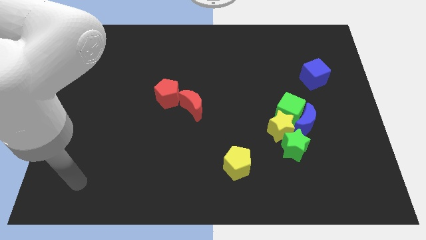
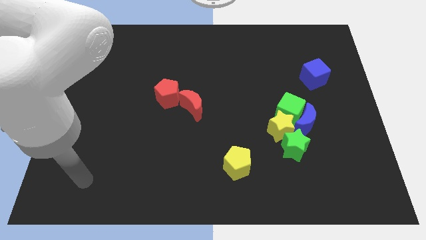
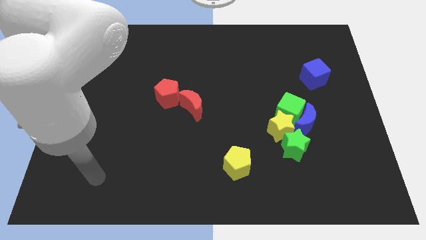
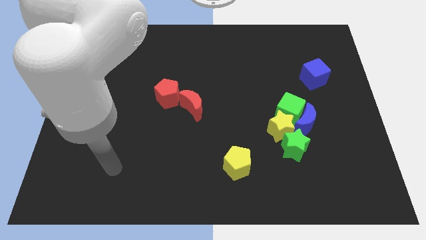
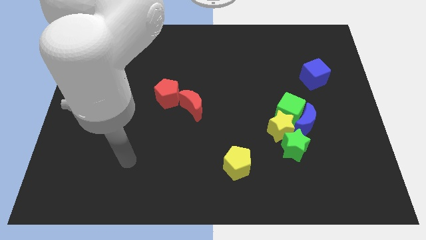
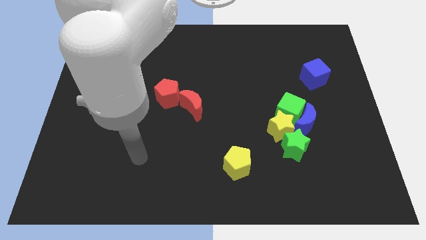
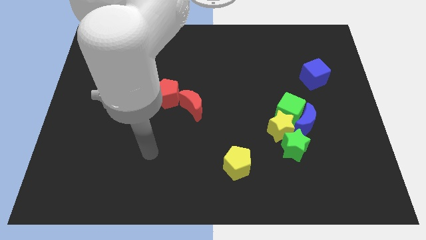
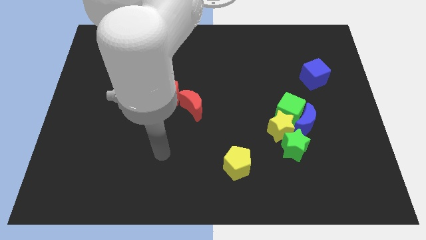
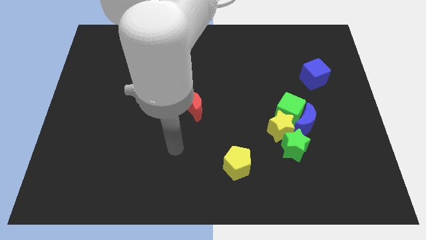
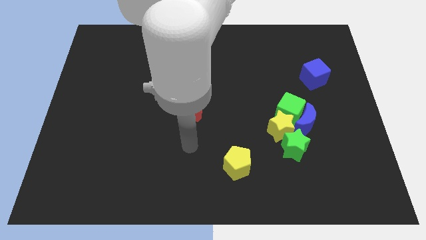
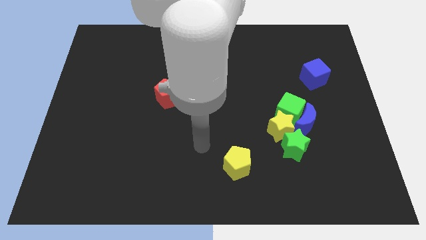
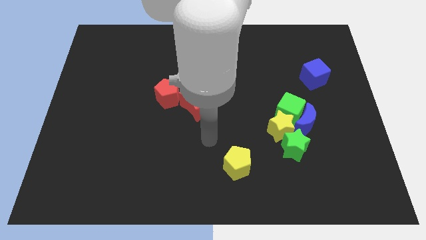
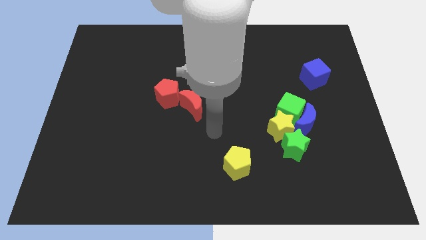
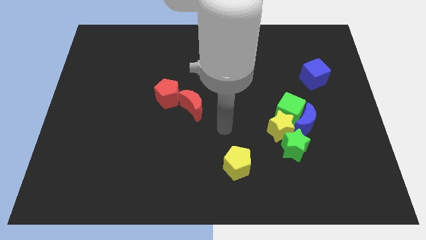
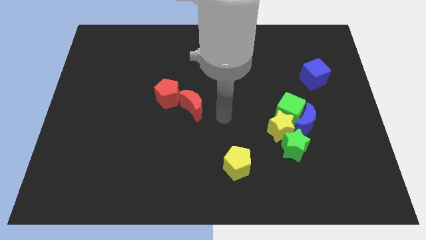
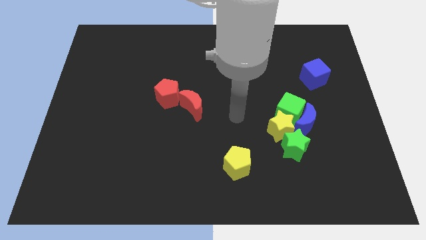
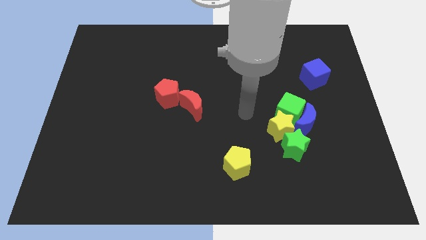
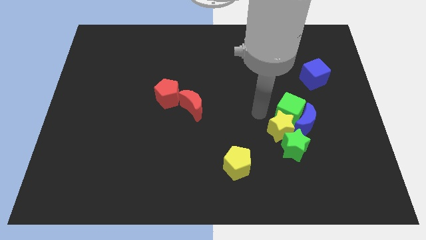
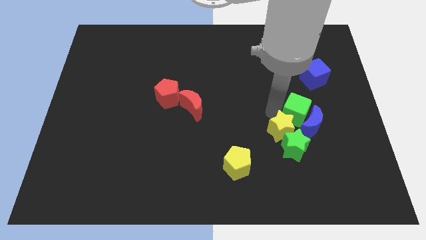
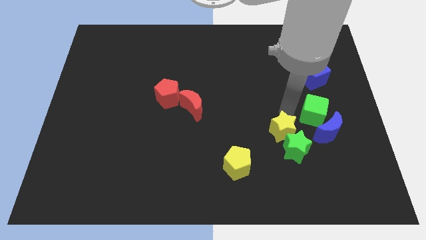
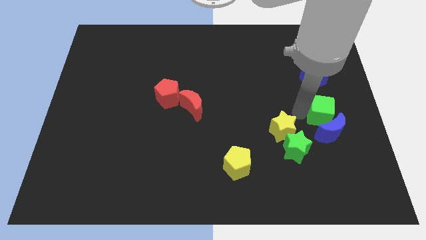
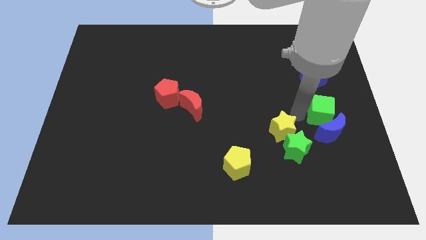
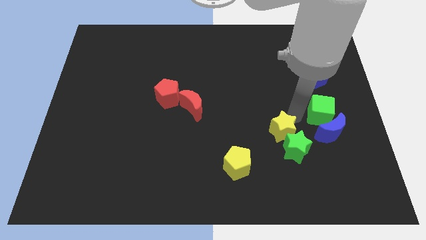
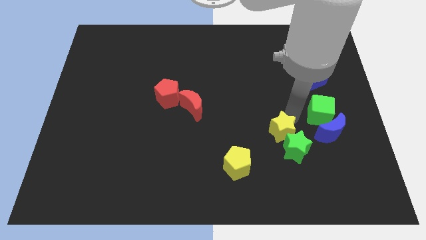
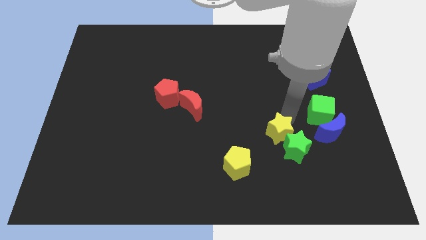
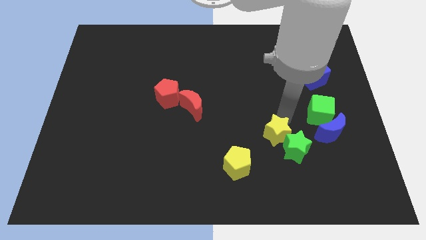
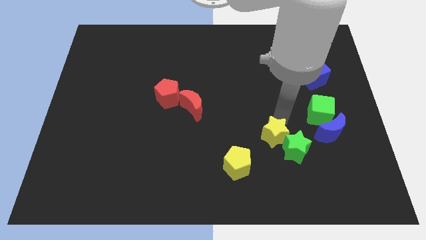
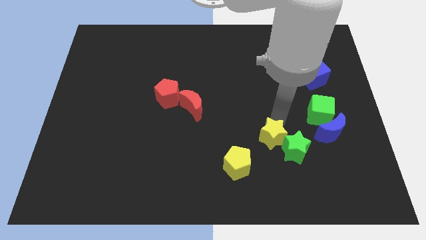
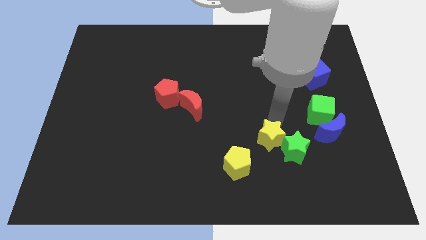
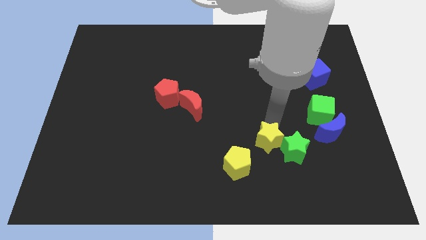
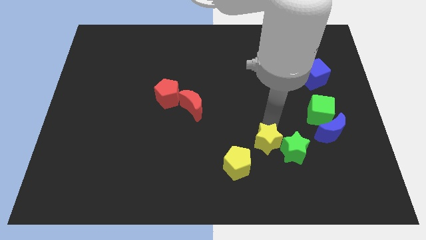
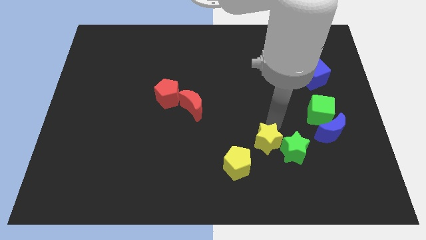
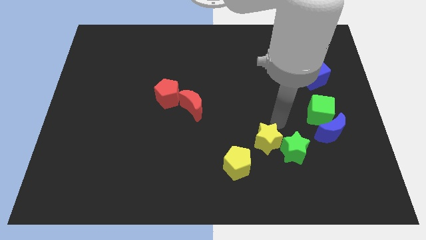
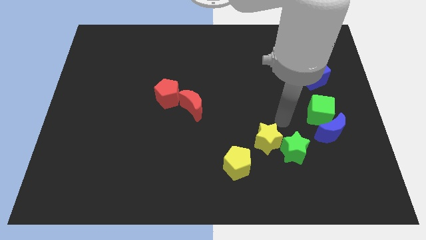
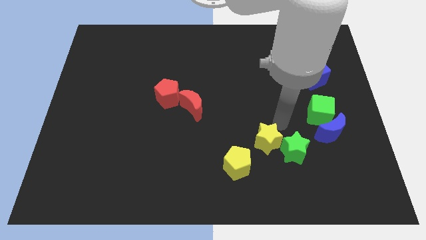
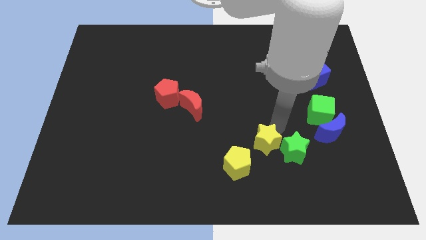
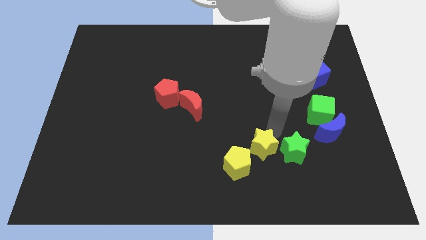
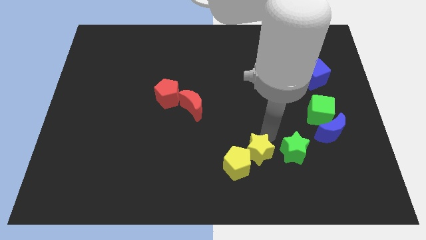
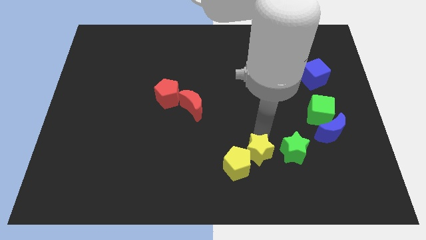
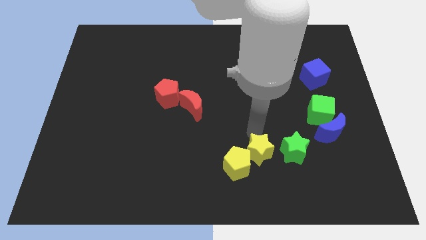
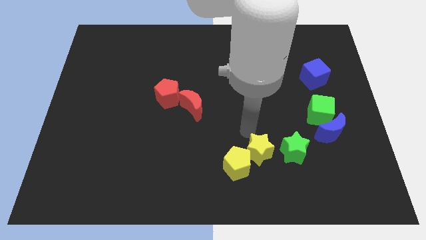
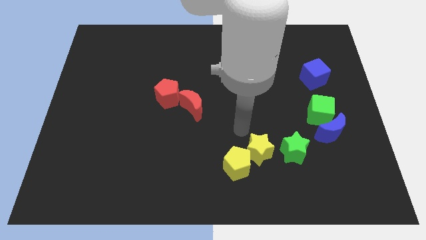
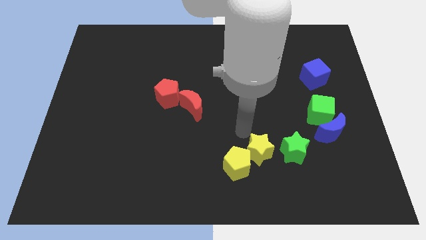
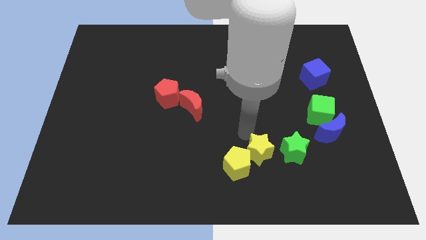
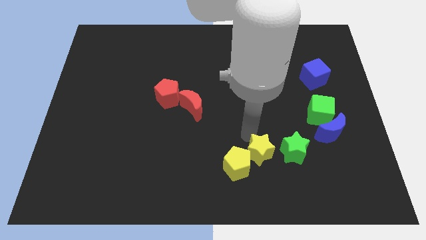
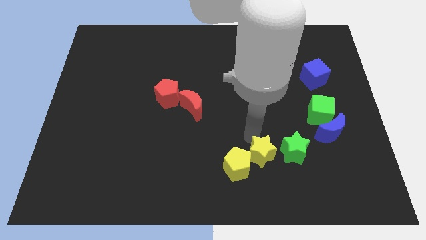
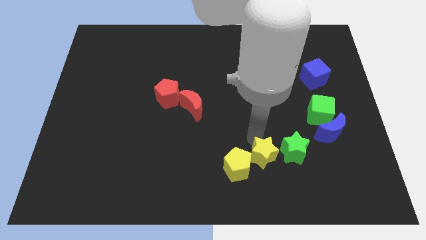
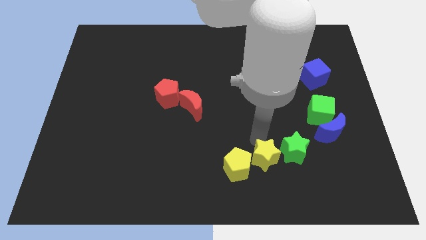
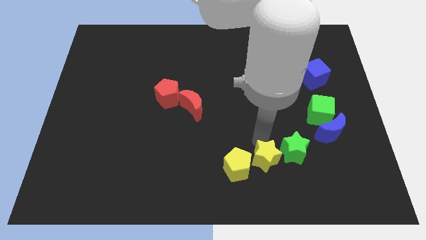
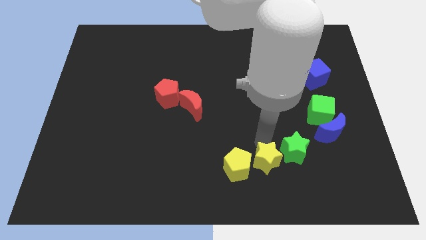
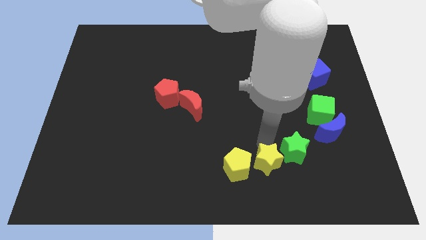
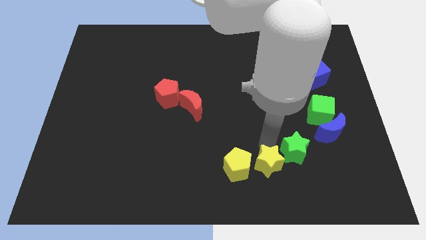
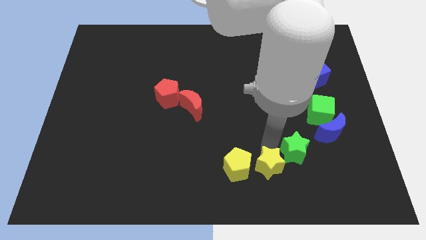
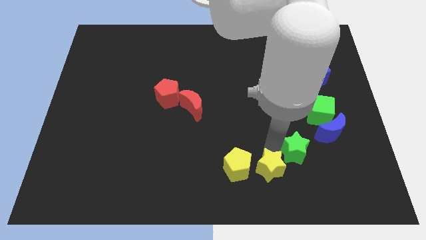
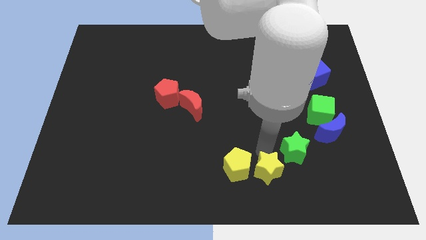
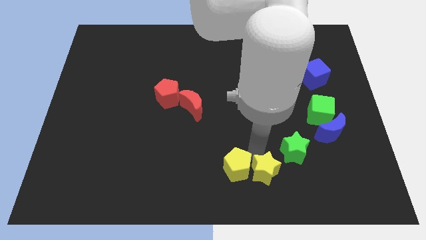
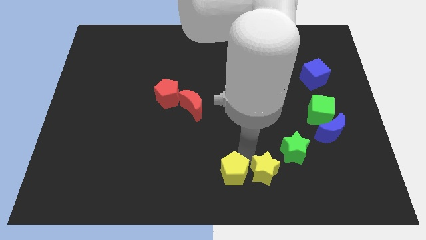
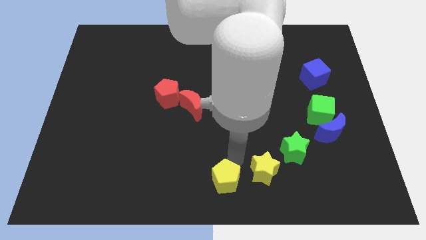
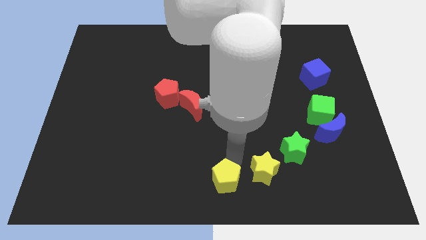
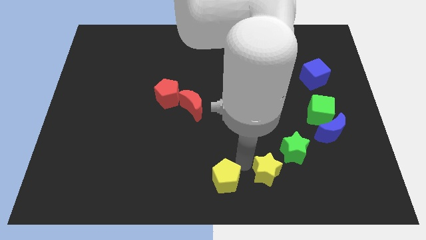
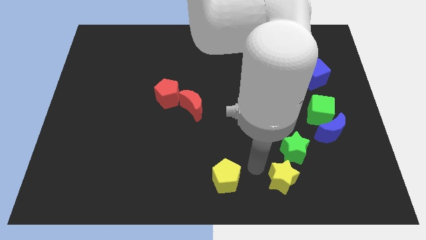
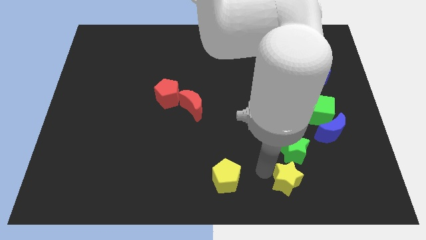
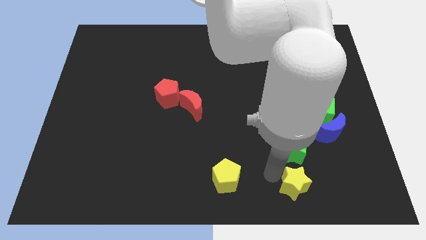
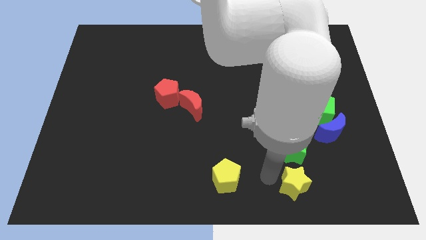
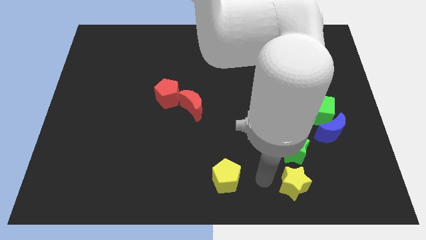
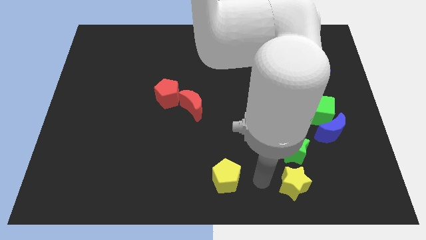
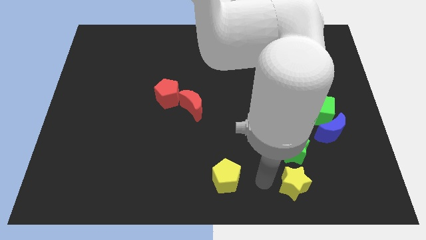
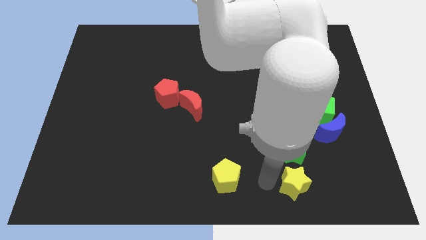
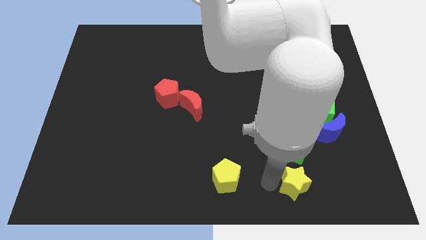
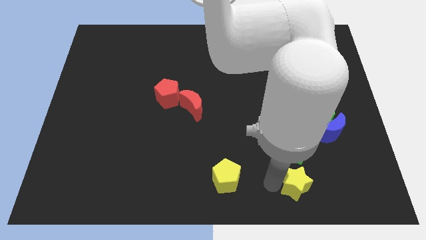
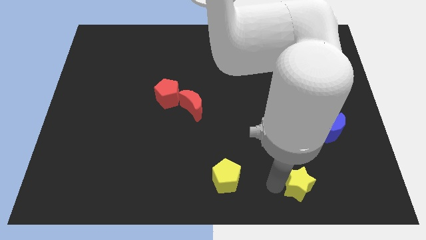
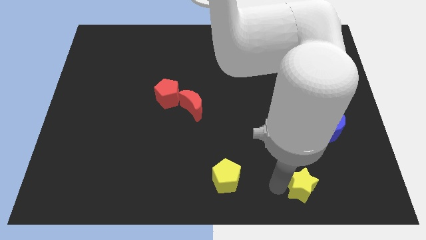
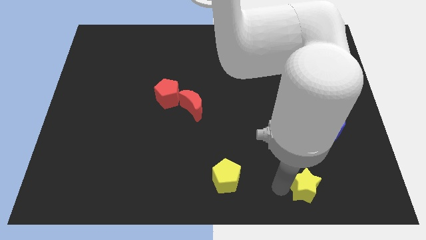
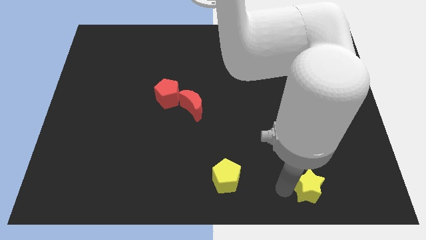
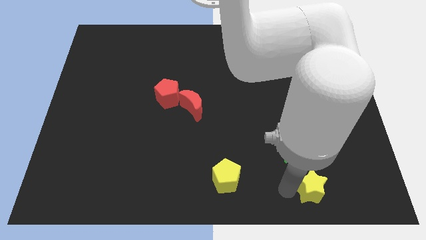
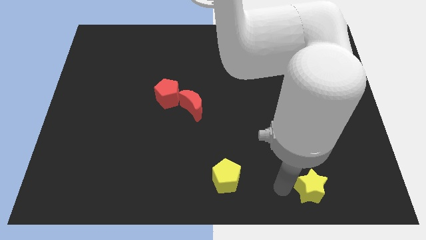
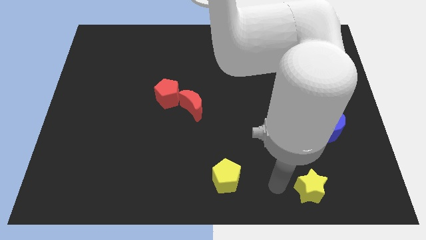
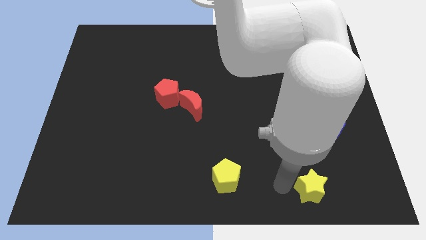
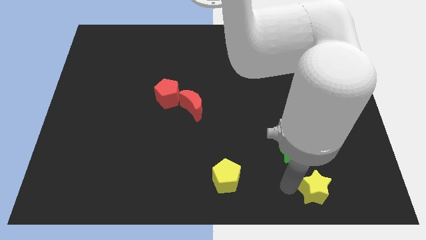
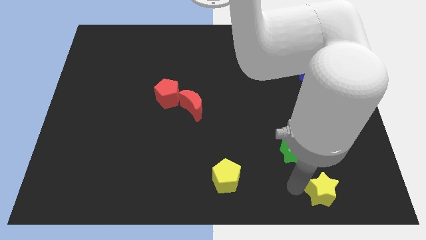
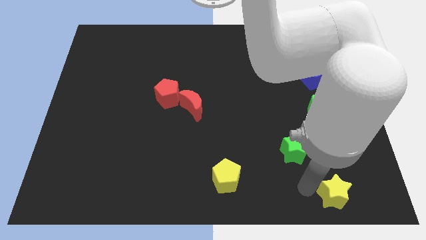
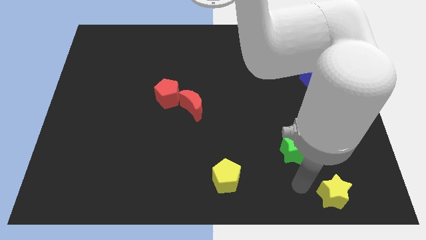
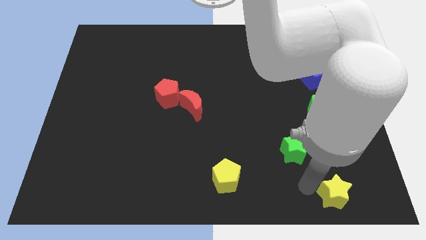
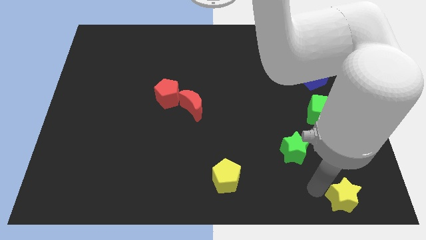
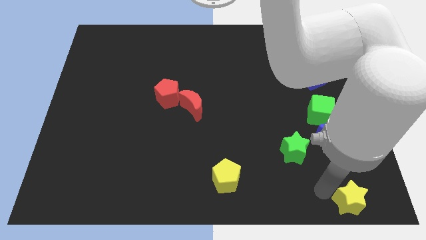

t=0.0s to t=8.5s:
move the yellow star to the bottom right of the board
